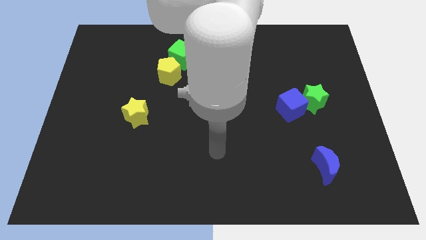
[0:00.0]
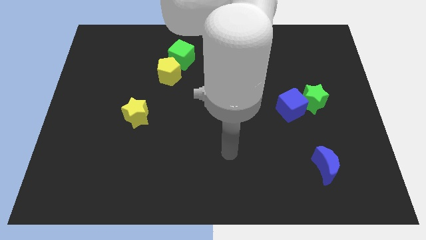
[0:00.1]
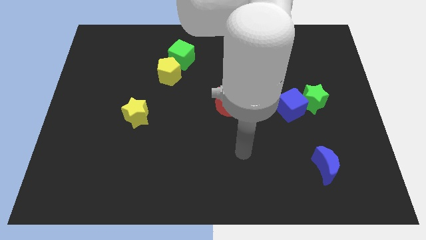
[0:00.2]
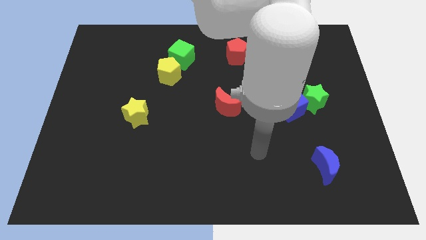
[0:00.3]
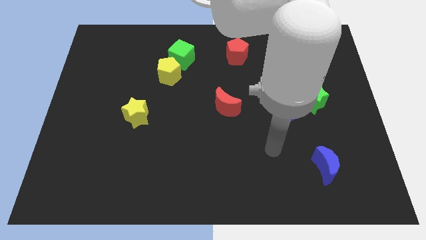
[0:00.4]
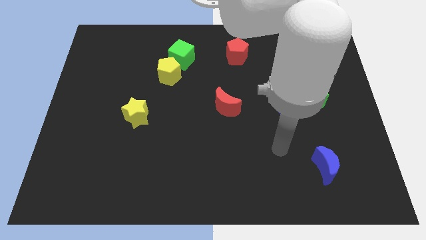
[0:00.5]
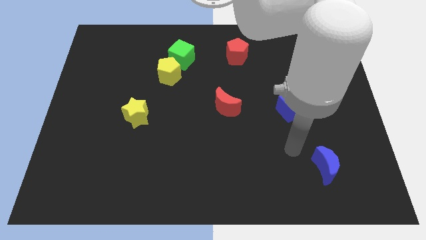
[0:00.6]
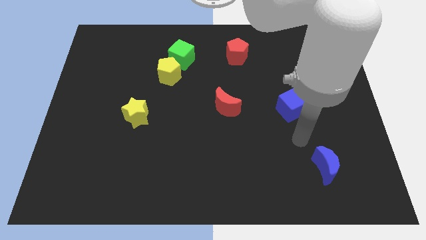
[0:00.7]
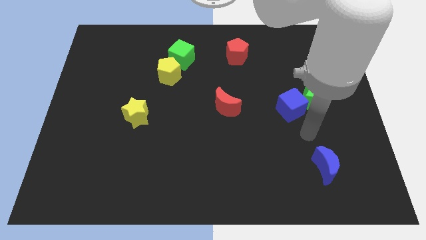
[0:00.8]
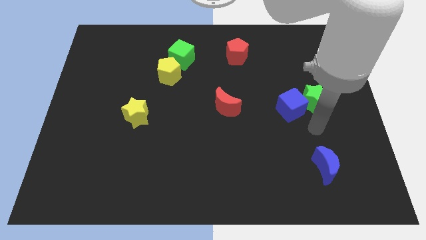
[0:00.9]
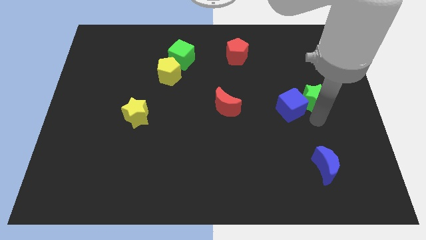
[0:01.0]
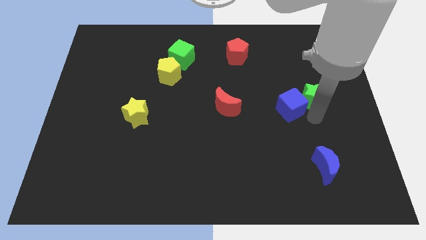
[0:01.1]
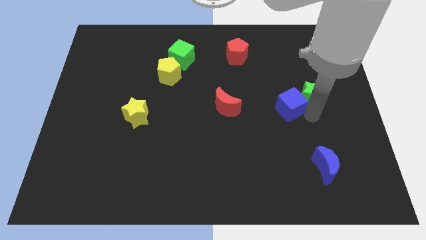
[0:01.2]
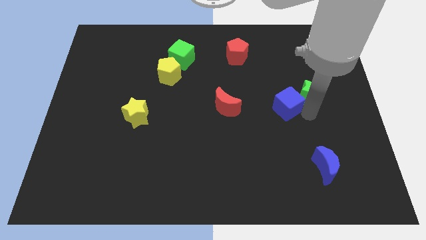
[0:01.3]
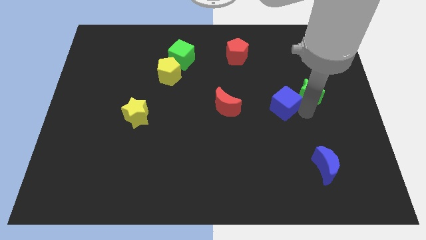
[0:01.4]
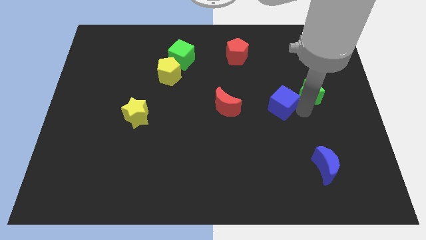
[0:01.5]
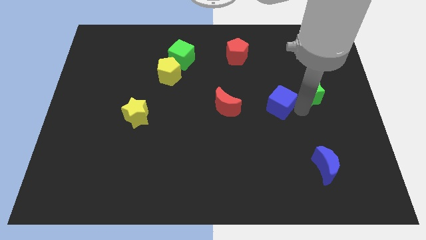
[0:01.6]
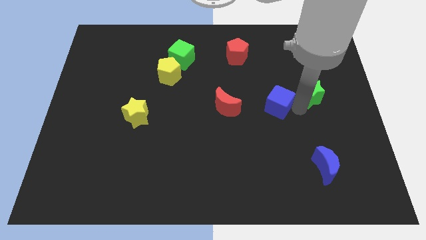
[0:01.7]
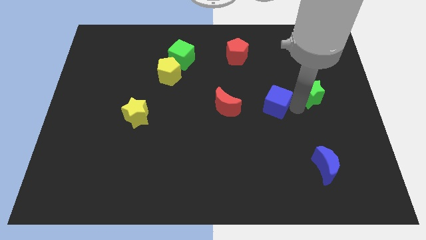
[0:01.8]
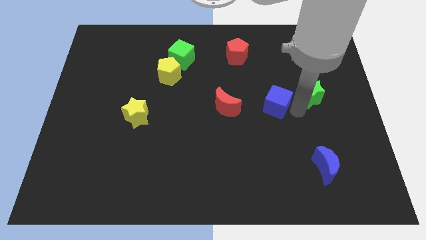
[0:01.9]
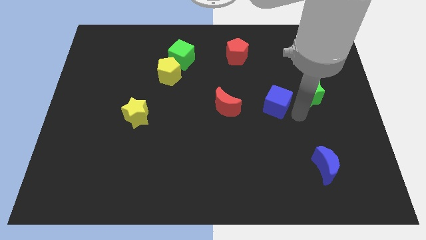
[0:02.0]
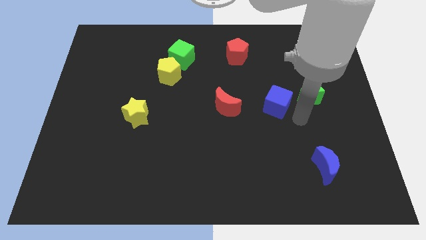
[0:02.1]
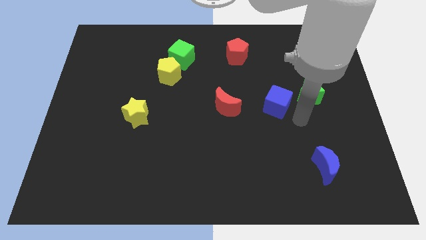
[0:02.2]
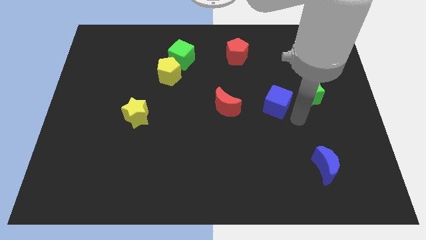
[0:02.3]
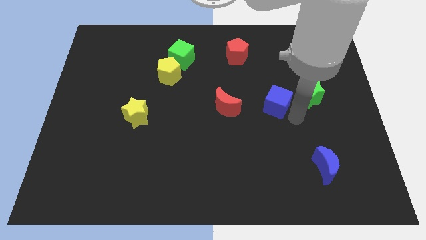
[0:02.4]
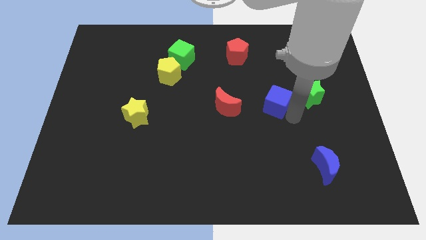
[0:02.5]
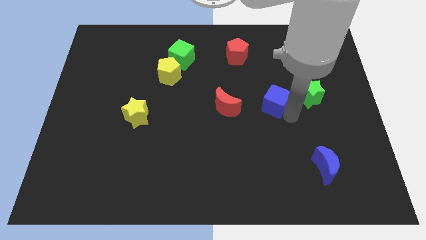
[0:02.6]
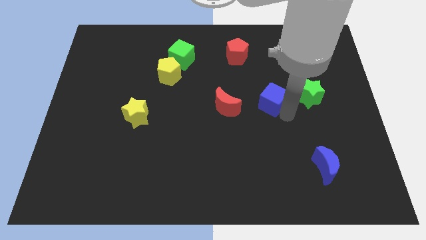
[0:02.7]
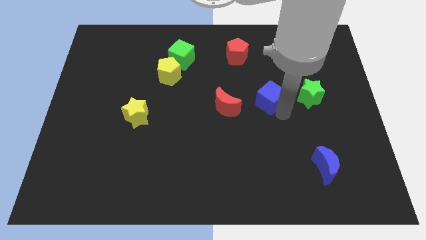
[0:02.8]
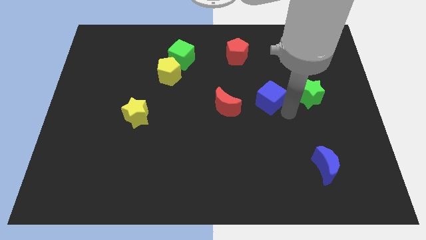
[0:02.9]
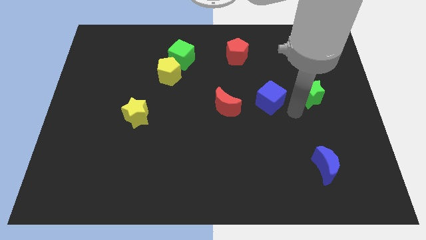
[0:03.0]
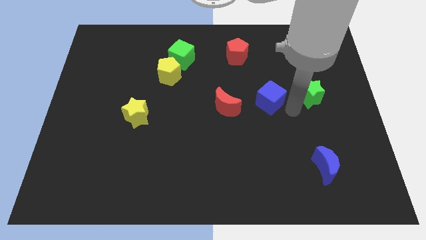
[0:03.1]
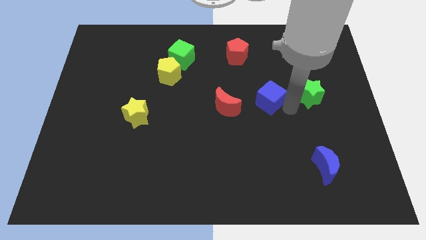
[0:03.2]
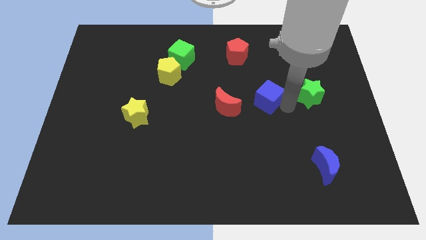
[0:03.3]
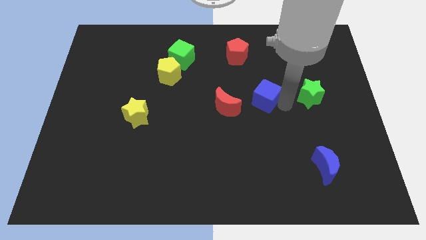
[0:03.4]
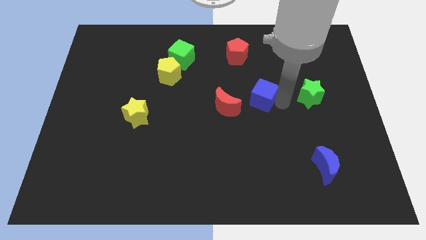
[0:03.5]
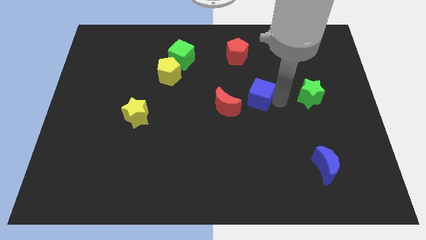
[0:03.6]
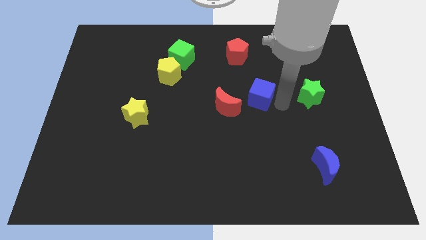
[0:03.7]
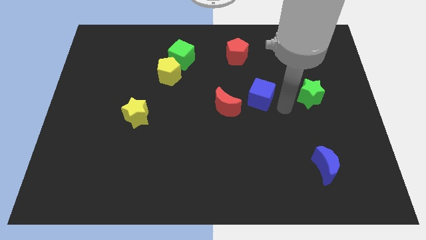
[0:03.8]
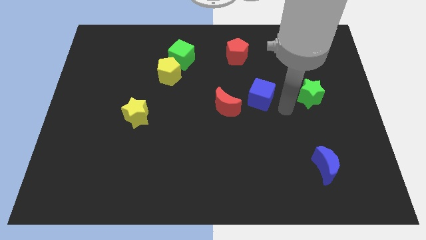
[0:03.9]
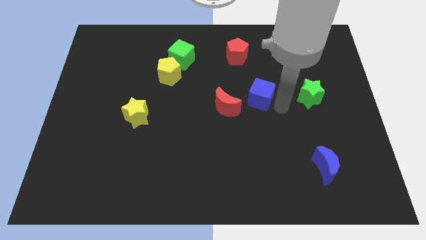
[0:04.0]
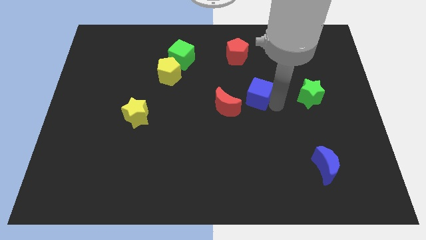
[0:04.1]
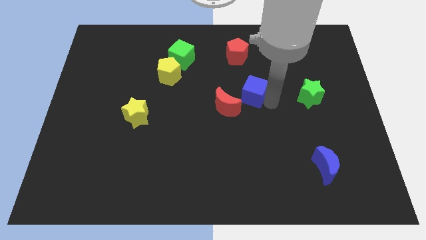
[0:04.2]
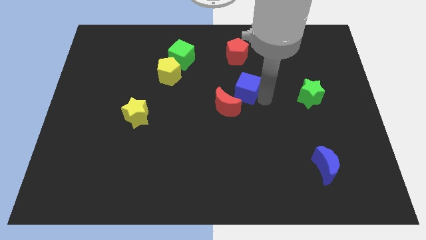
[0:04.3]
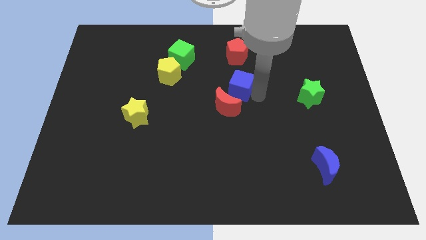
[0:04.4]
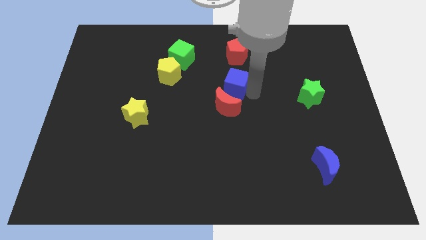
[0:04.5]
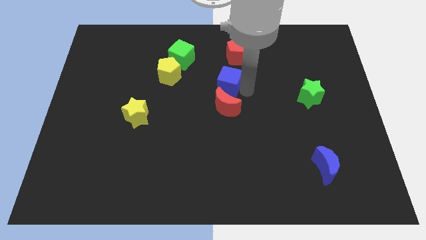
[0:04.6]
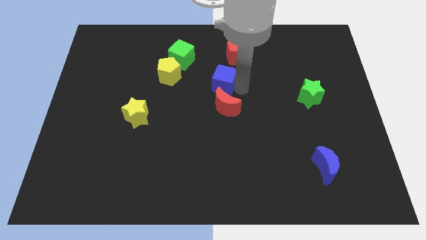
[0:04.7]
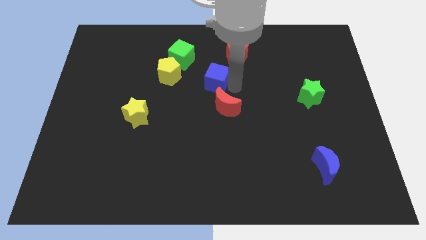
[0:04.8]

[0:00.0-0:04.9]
push the blue cube to the bottom right of the green cube

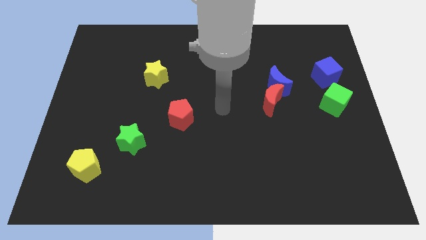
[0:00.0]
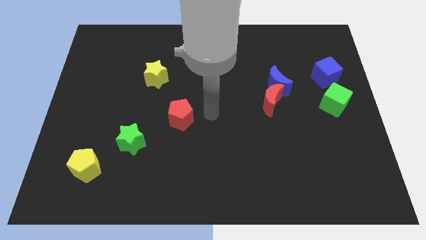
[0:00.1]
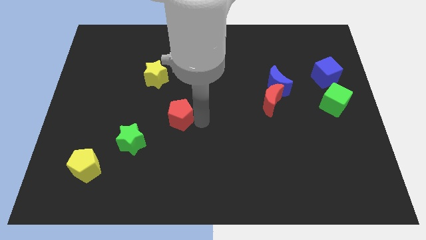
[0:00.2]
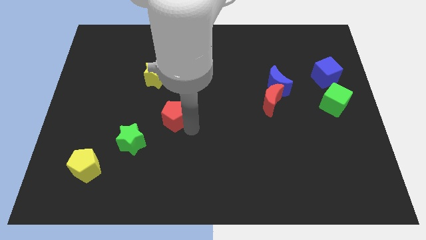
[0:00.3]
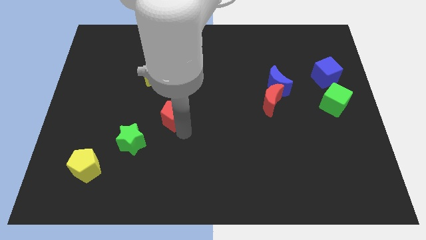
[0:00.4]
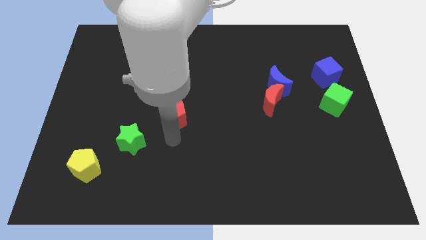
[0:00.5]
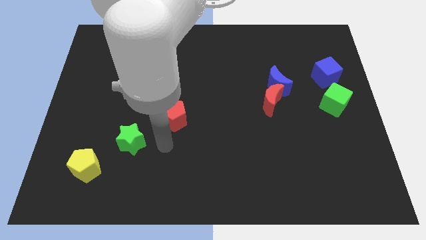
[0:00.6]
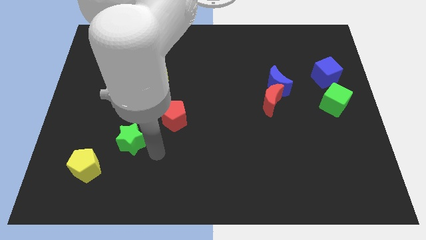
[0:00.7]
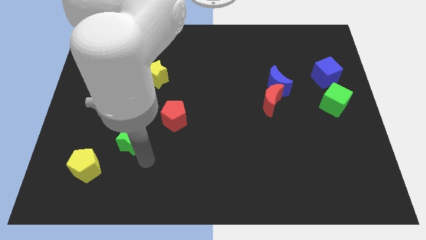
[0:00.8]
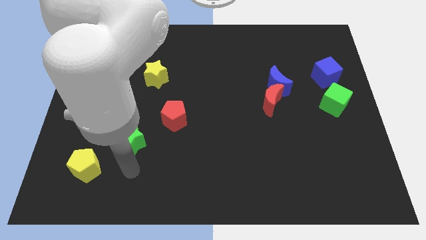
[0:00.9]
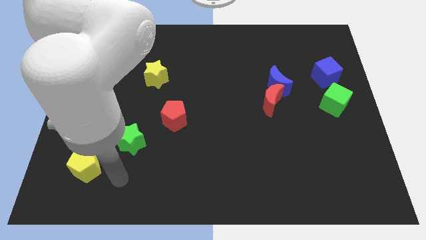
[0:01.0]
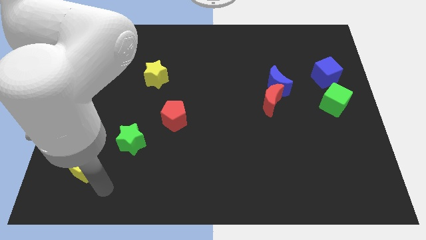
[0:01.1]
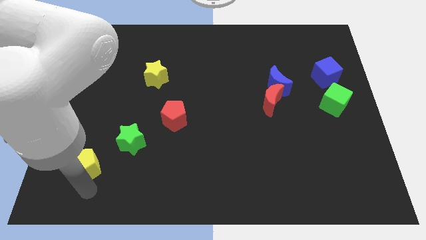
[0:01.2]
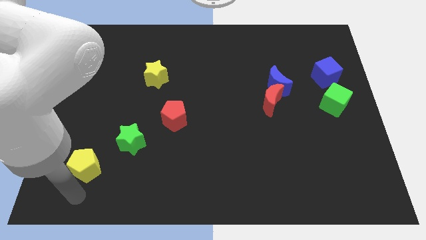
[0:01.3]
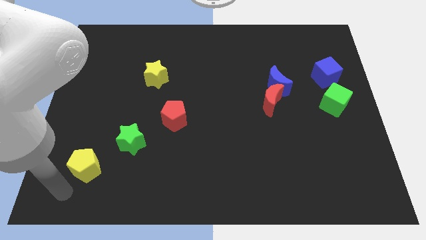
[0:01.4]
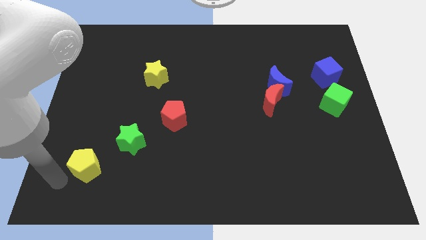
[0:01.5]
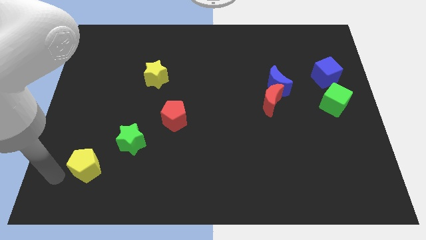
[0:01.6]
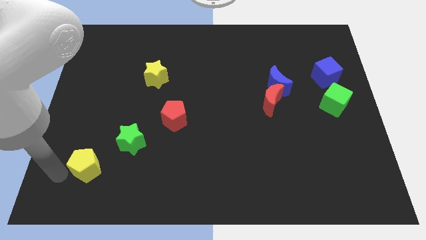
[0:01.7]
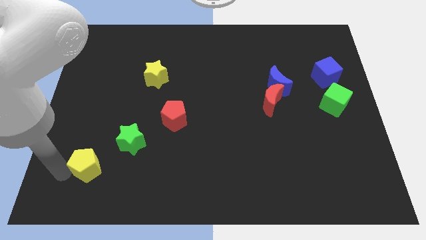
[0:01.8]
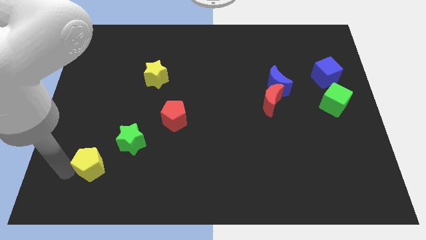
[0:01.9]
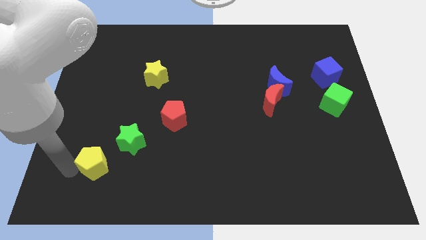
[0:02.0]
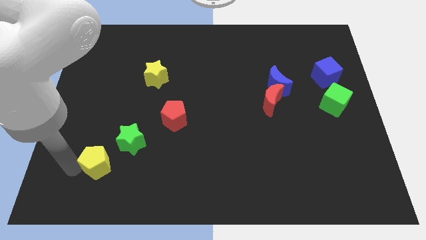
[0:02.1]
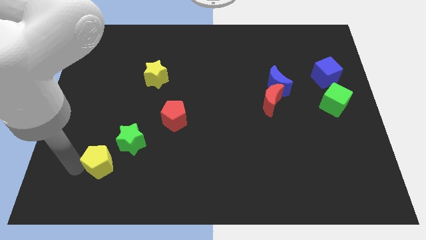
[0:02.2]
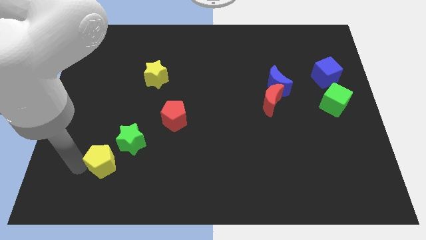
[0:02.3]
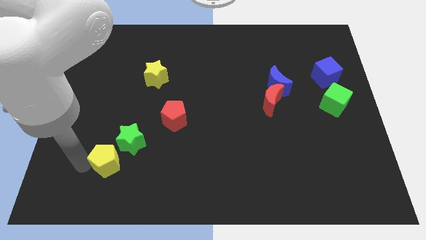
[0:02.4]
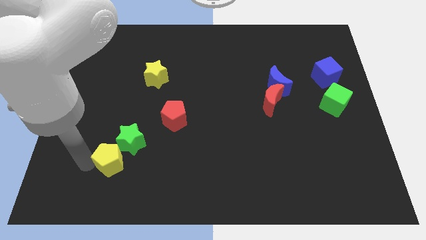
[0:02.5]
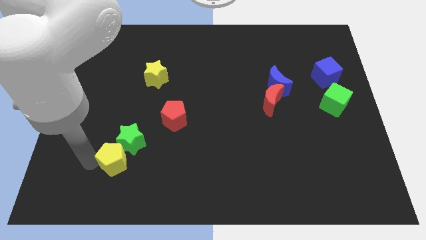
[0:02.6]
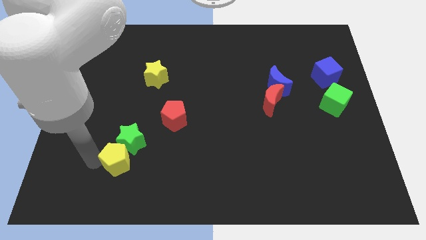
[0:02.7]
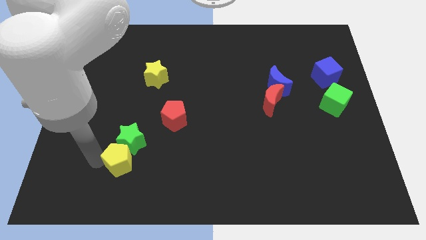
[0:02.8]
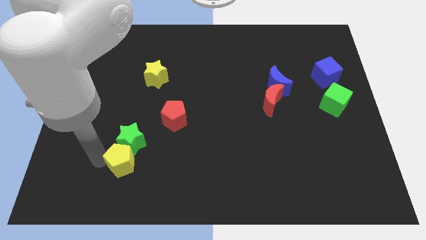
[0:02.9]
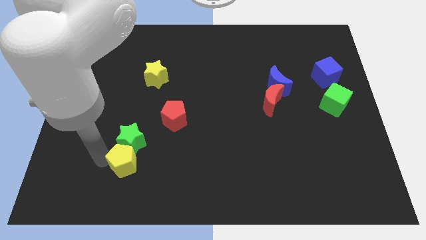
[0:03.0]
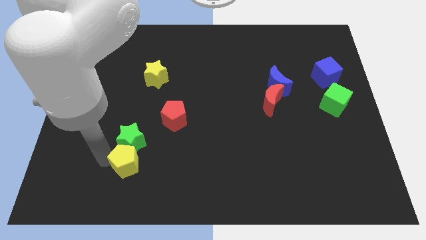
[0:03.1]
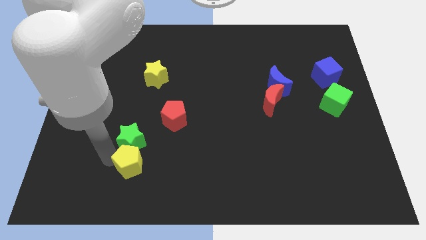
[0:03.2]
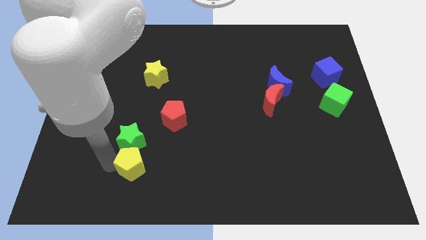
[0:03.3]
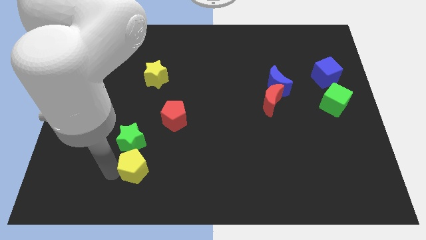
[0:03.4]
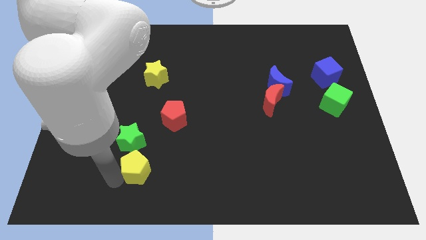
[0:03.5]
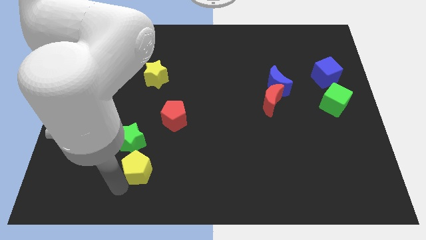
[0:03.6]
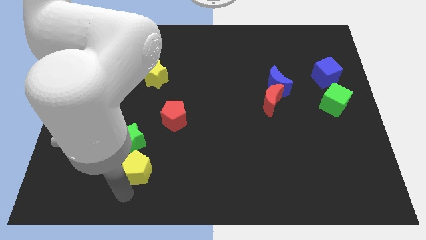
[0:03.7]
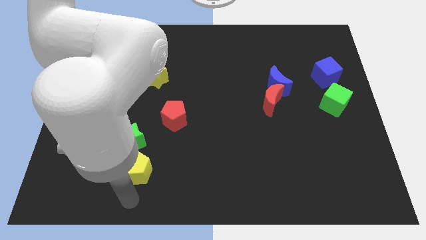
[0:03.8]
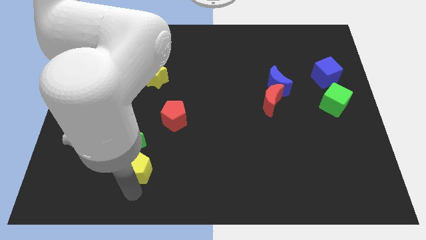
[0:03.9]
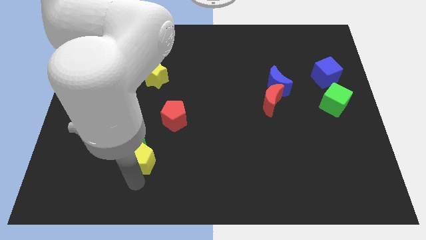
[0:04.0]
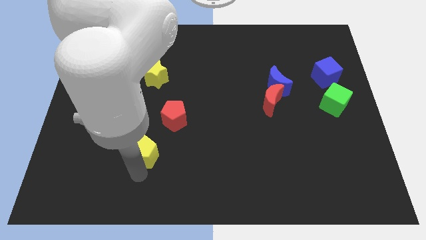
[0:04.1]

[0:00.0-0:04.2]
move the yellow pentagon diagonally down and to the left of the red pentagon
